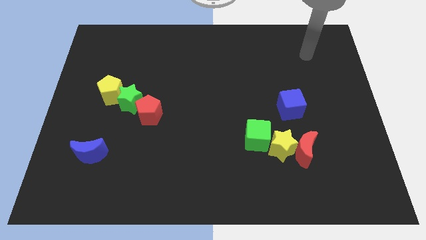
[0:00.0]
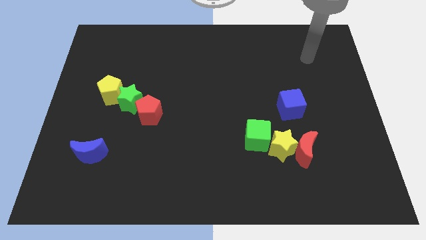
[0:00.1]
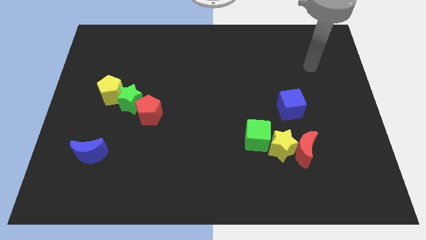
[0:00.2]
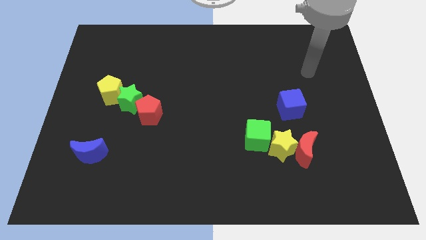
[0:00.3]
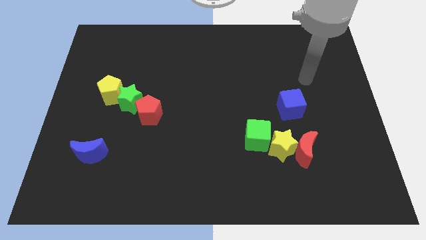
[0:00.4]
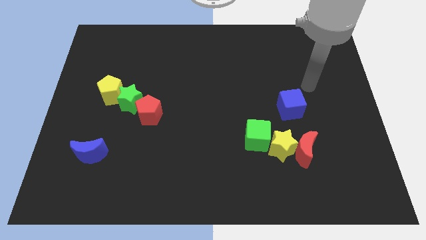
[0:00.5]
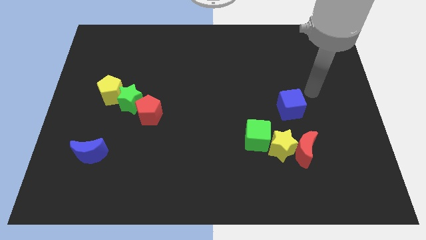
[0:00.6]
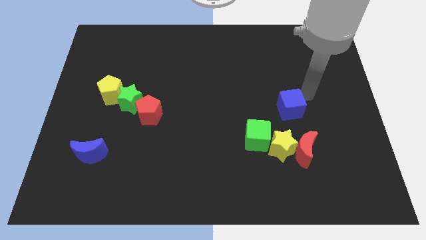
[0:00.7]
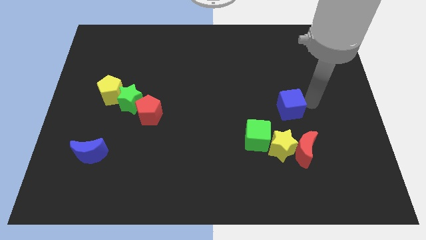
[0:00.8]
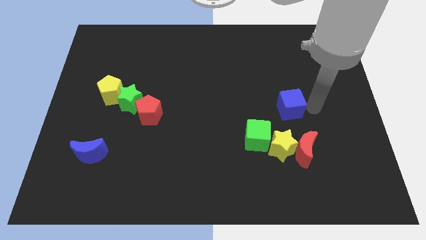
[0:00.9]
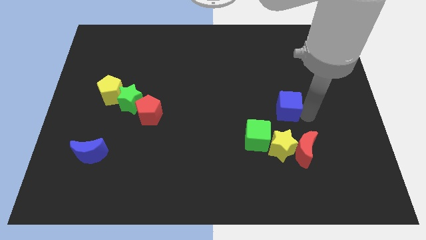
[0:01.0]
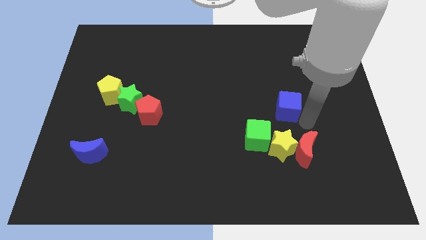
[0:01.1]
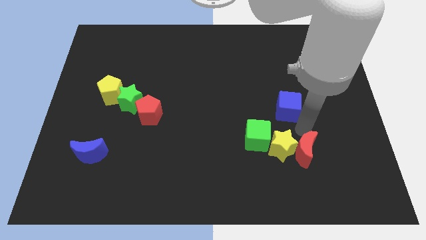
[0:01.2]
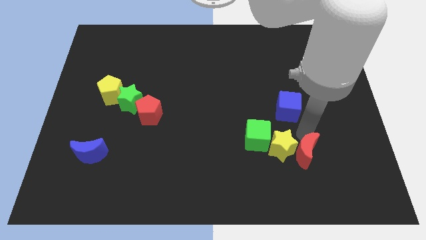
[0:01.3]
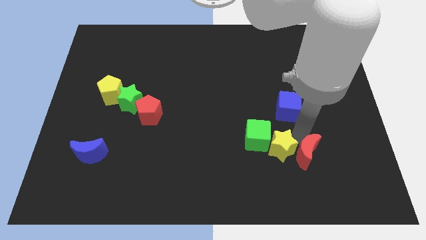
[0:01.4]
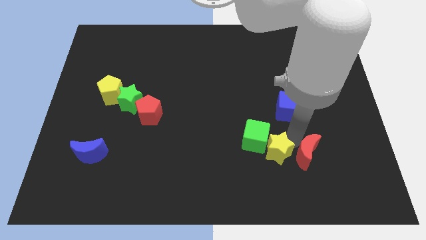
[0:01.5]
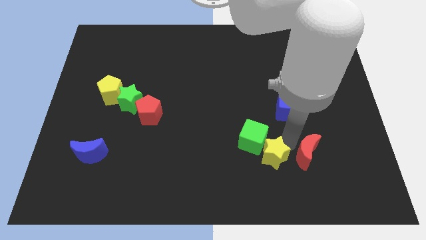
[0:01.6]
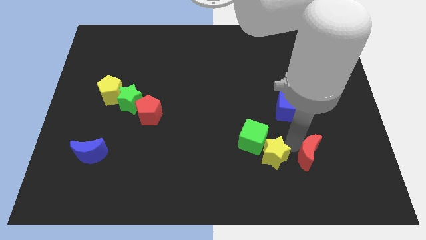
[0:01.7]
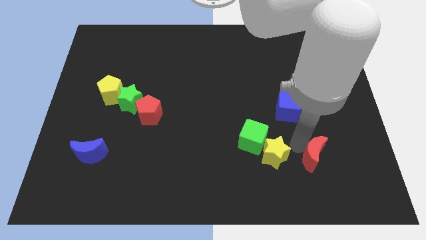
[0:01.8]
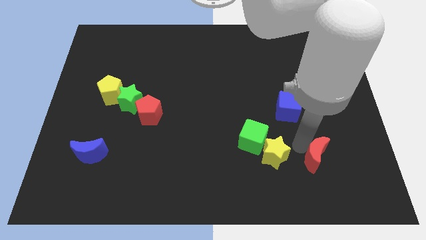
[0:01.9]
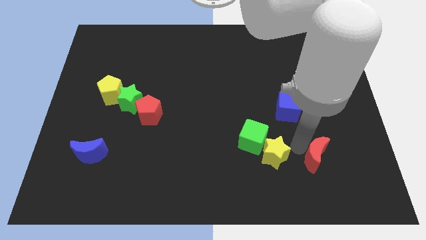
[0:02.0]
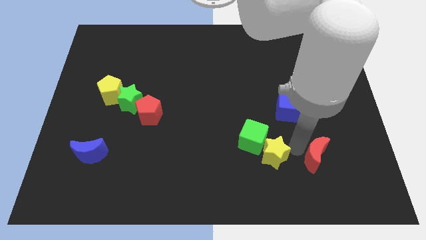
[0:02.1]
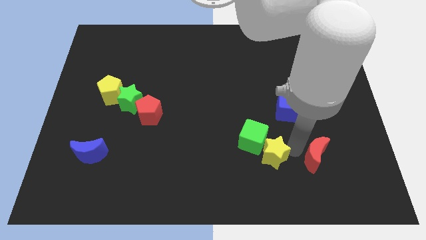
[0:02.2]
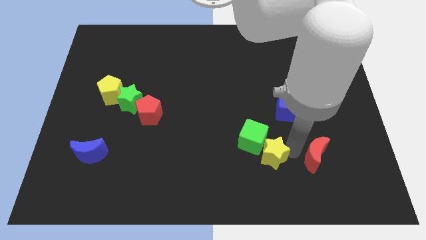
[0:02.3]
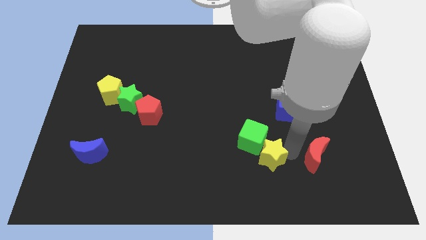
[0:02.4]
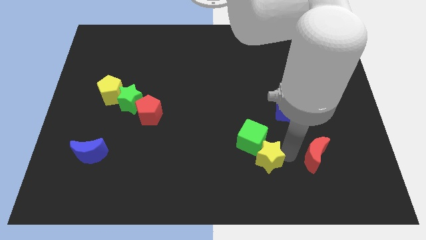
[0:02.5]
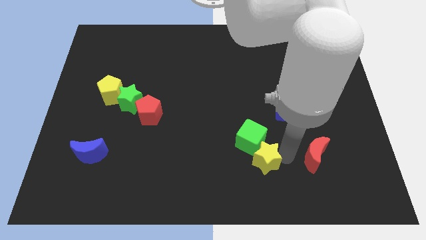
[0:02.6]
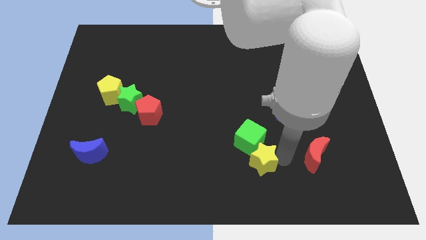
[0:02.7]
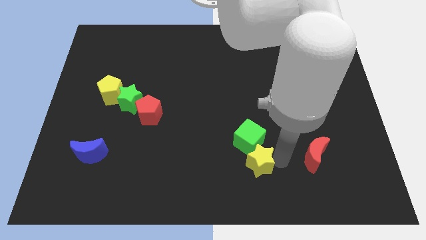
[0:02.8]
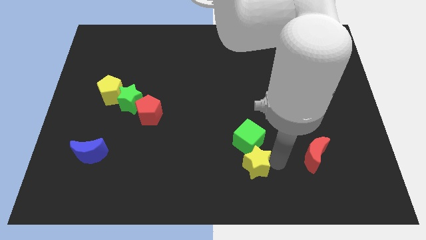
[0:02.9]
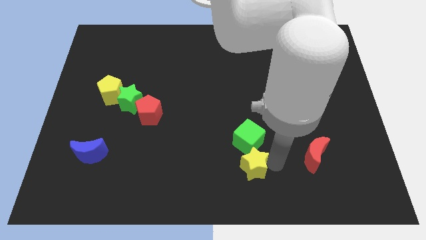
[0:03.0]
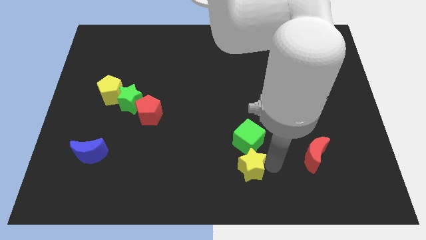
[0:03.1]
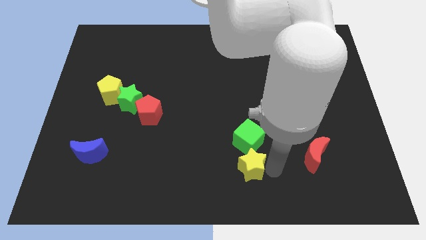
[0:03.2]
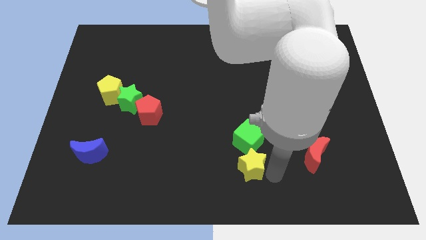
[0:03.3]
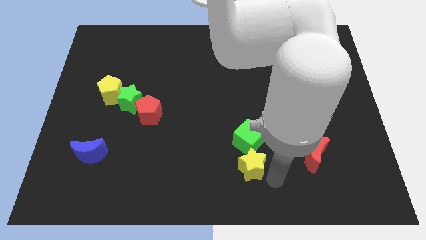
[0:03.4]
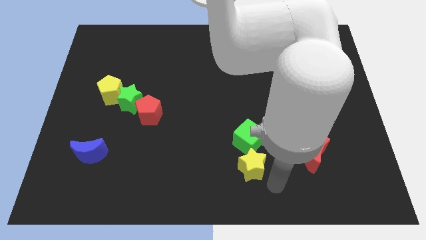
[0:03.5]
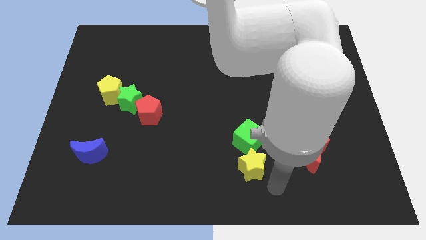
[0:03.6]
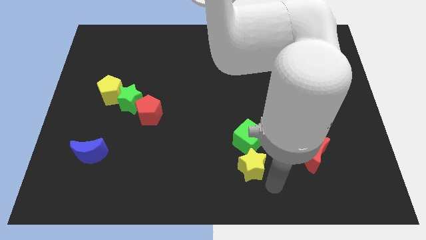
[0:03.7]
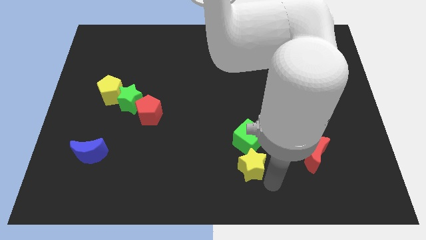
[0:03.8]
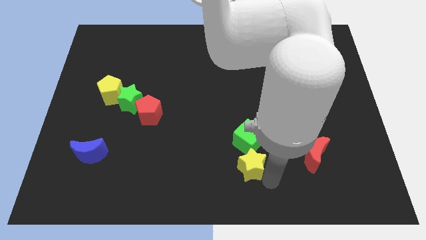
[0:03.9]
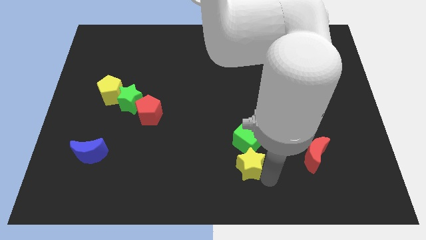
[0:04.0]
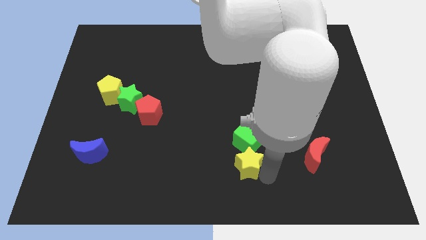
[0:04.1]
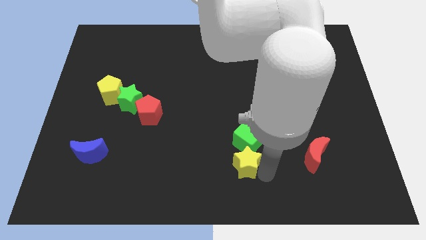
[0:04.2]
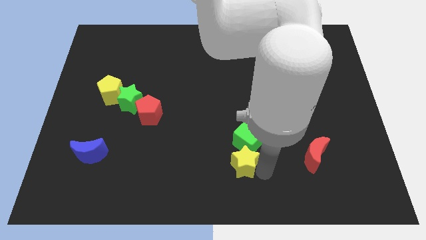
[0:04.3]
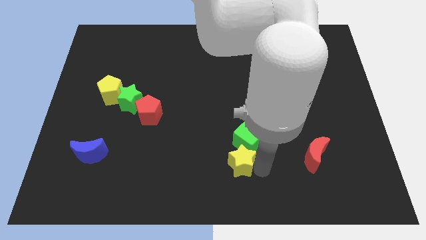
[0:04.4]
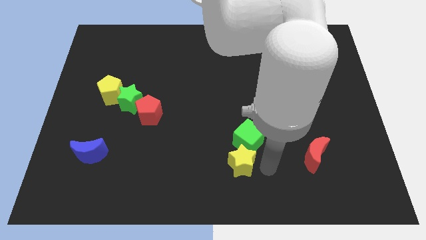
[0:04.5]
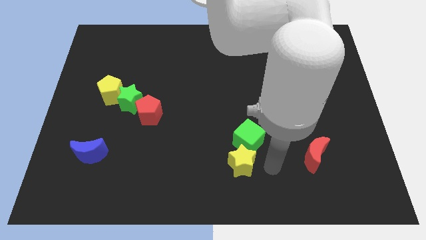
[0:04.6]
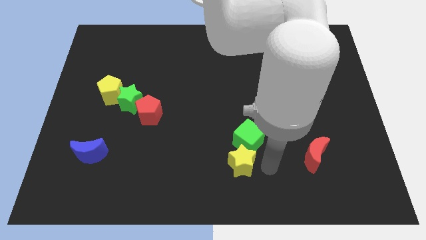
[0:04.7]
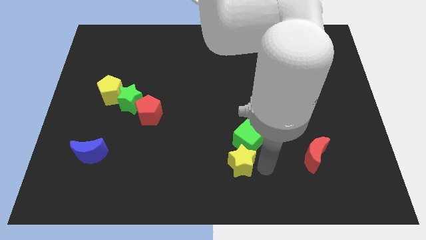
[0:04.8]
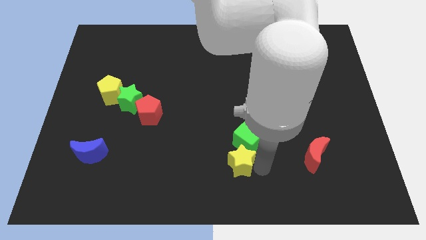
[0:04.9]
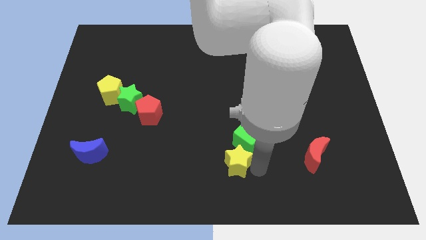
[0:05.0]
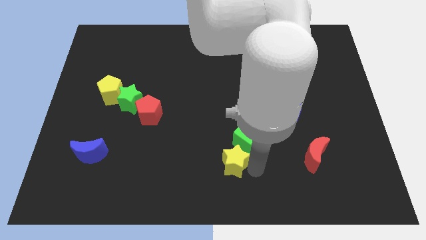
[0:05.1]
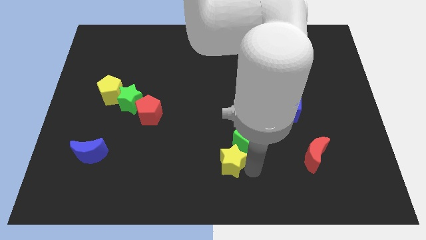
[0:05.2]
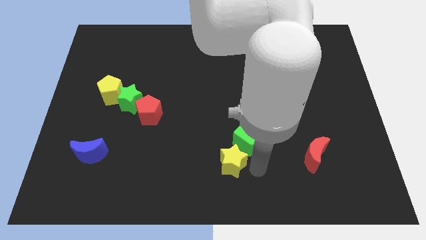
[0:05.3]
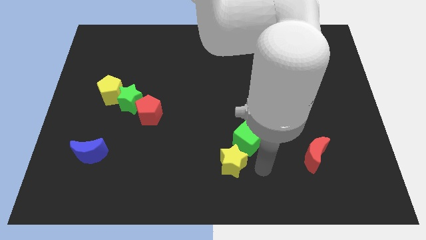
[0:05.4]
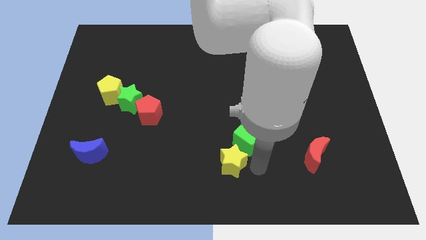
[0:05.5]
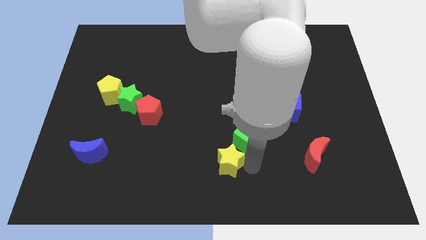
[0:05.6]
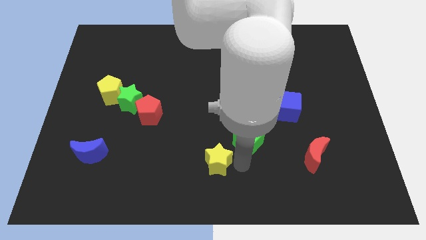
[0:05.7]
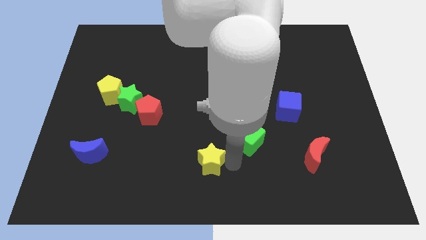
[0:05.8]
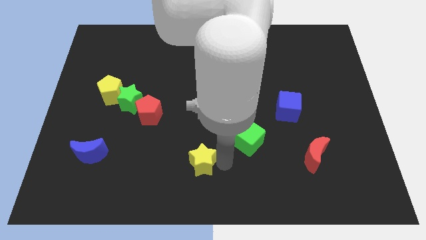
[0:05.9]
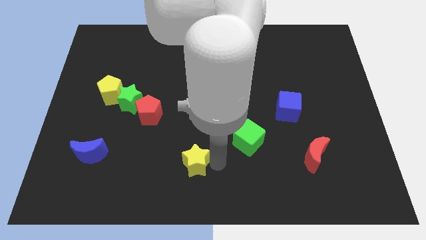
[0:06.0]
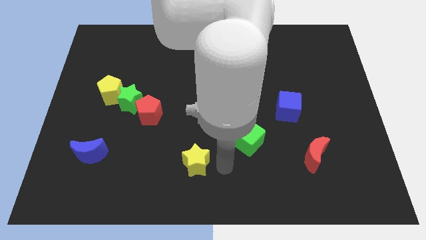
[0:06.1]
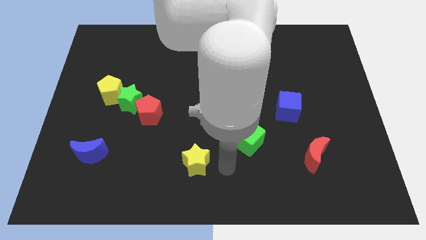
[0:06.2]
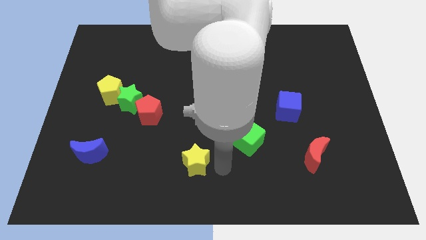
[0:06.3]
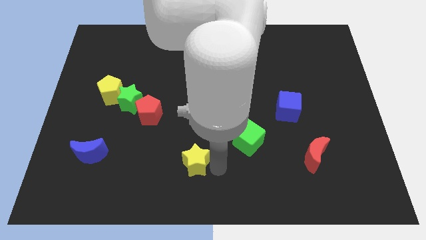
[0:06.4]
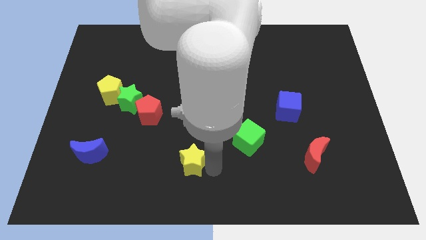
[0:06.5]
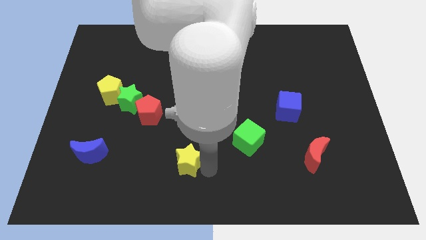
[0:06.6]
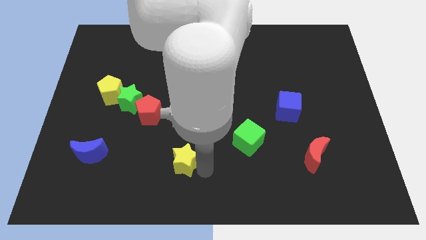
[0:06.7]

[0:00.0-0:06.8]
move the yellow star to the left

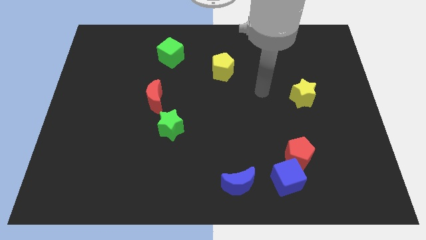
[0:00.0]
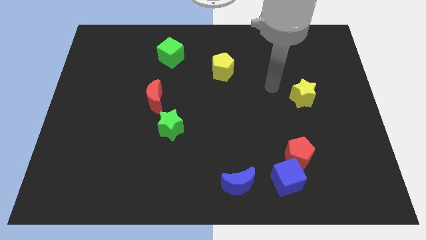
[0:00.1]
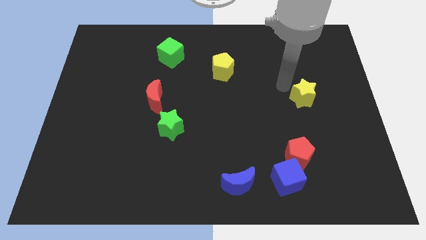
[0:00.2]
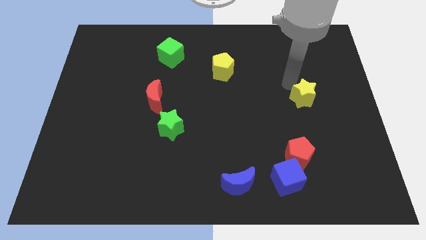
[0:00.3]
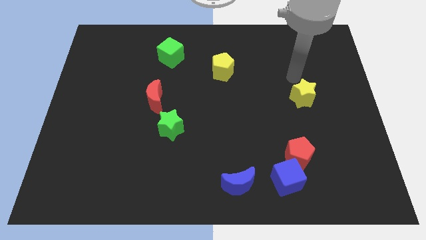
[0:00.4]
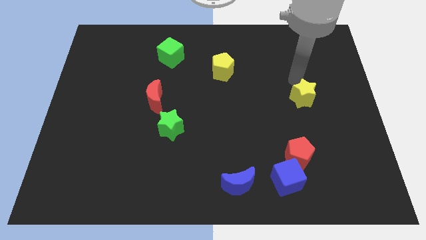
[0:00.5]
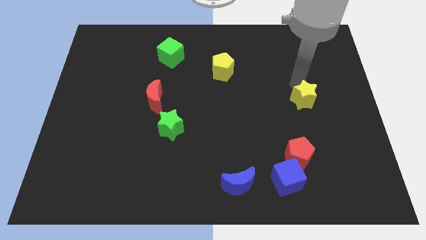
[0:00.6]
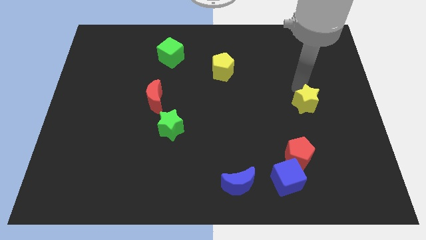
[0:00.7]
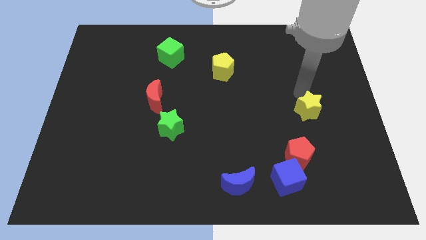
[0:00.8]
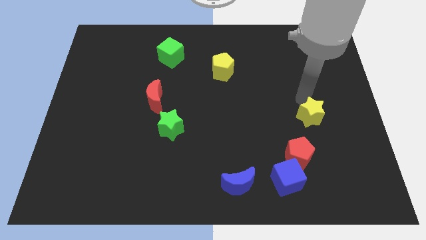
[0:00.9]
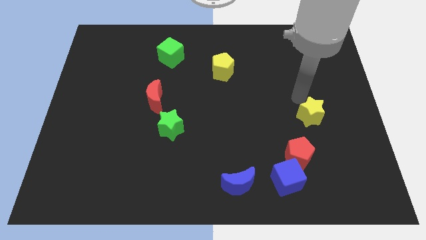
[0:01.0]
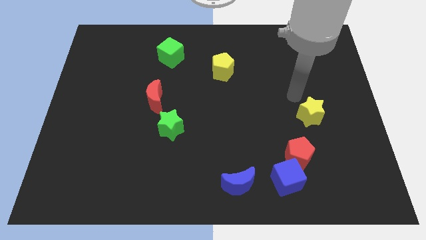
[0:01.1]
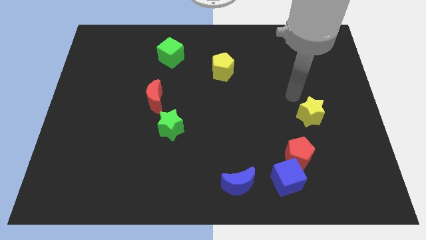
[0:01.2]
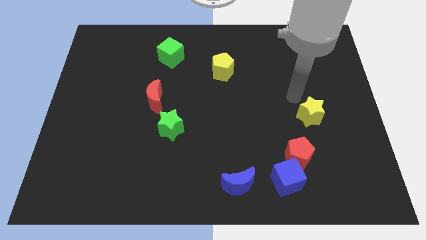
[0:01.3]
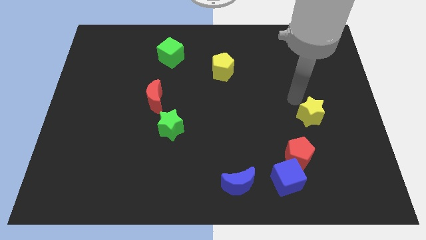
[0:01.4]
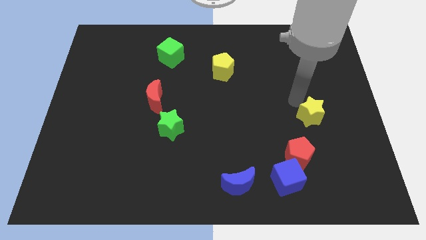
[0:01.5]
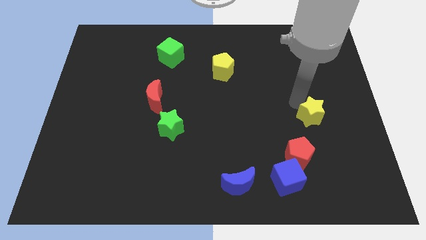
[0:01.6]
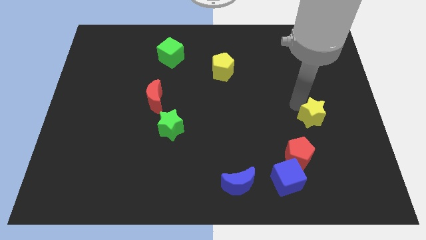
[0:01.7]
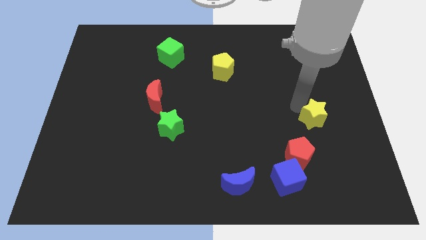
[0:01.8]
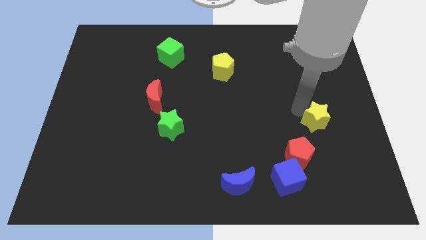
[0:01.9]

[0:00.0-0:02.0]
push the yellow star down a bit
